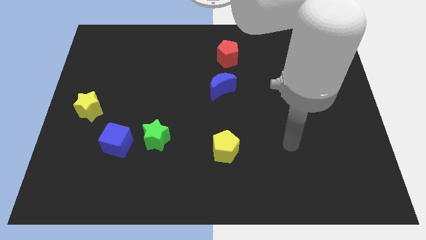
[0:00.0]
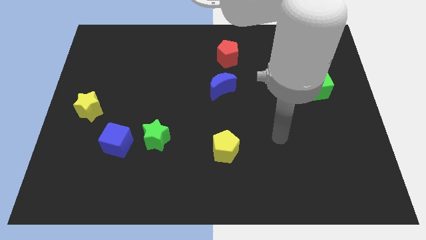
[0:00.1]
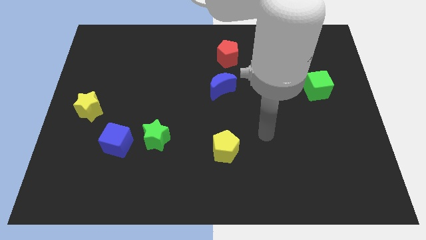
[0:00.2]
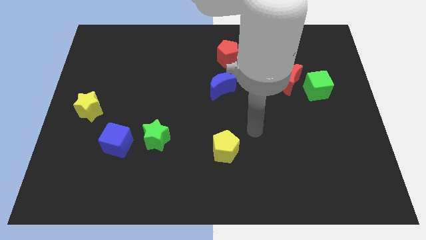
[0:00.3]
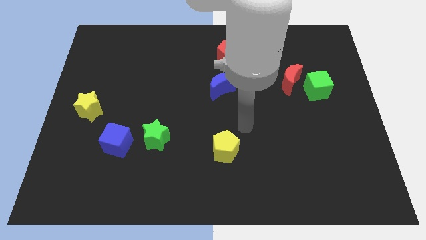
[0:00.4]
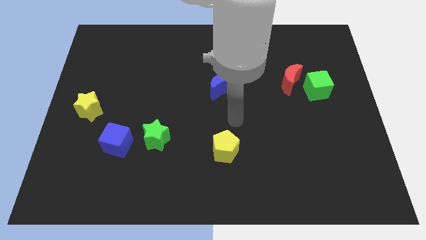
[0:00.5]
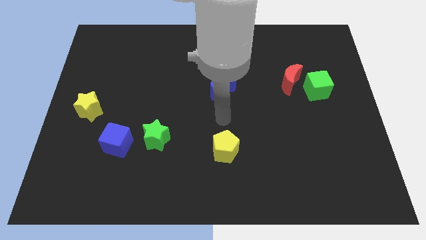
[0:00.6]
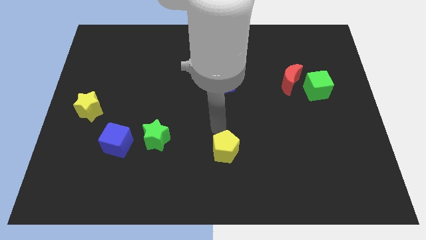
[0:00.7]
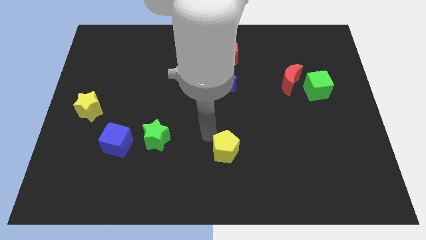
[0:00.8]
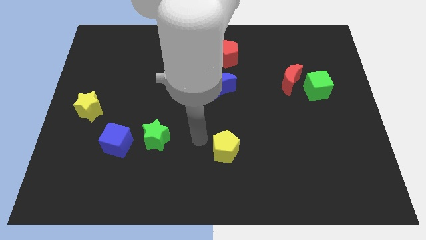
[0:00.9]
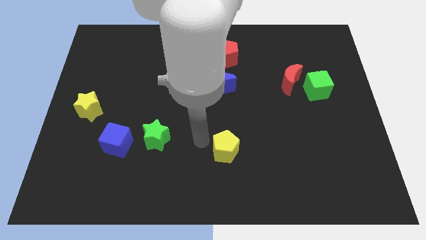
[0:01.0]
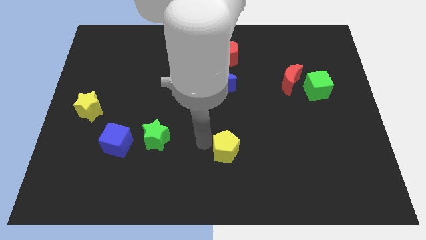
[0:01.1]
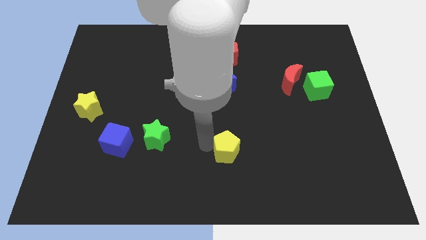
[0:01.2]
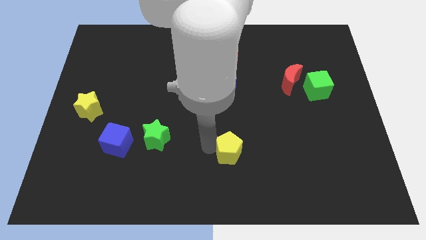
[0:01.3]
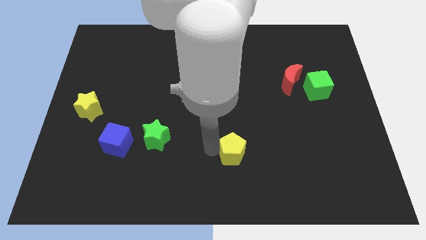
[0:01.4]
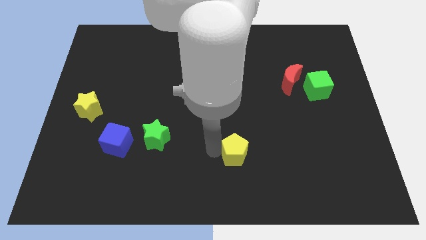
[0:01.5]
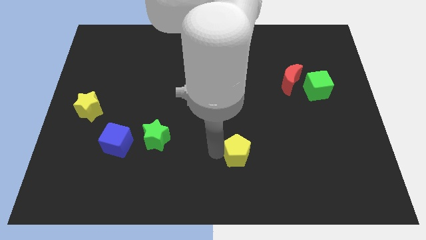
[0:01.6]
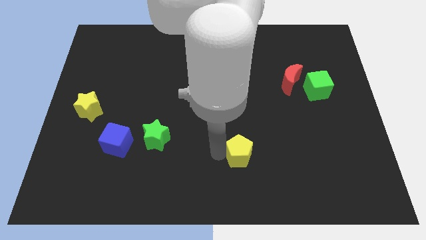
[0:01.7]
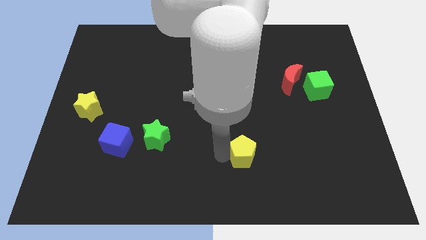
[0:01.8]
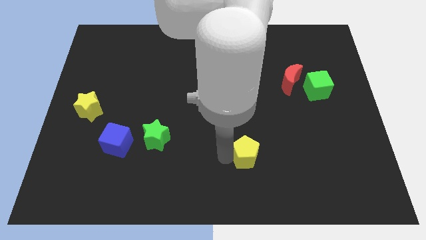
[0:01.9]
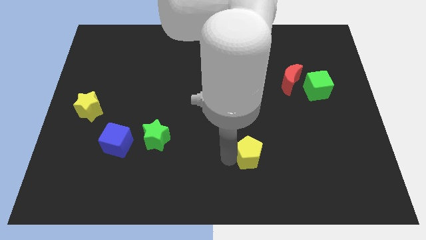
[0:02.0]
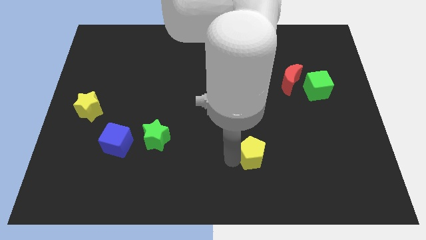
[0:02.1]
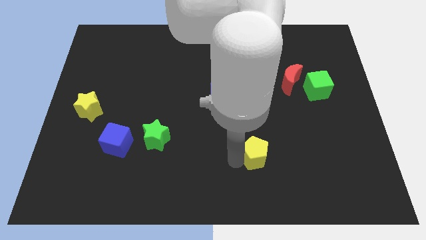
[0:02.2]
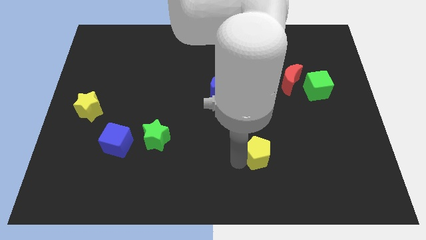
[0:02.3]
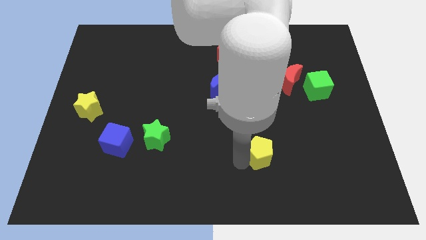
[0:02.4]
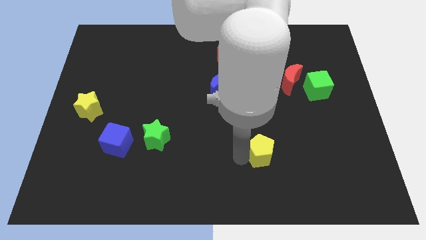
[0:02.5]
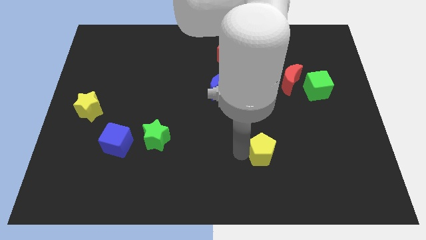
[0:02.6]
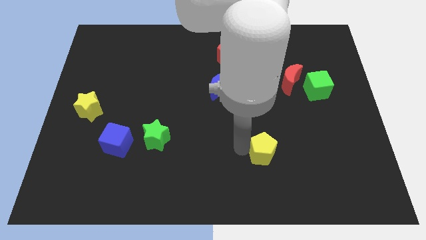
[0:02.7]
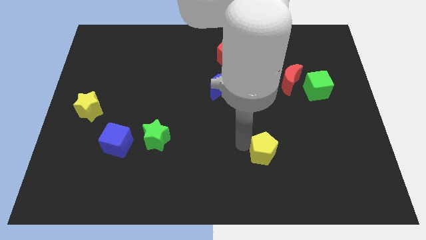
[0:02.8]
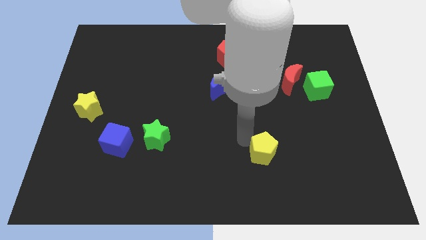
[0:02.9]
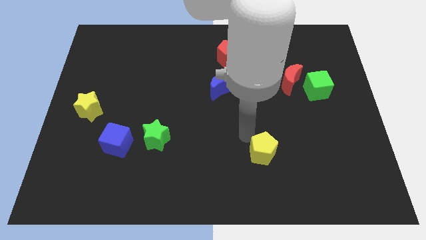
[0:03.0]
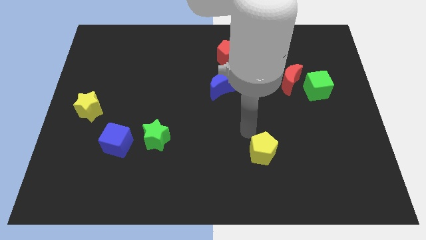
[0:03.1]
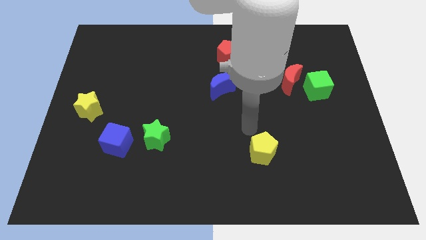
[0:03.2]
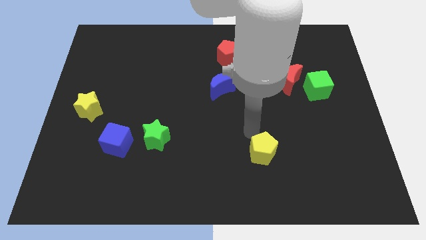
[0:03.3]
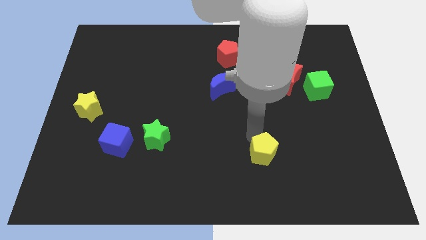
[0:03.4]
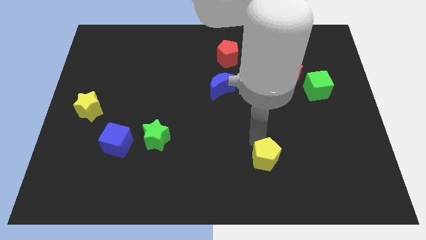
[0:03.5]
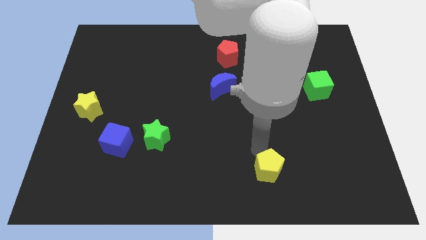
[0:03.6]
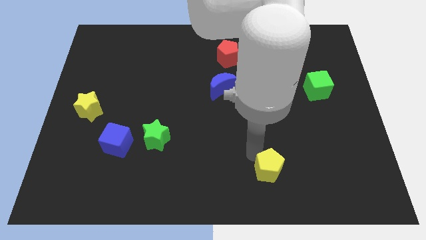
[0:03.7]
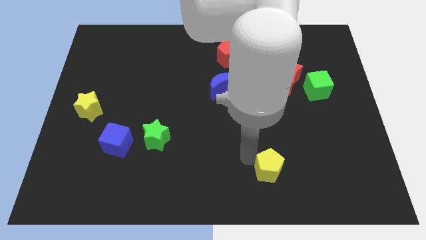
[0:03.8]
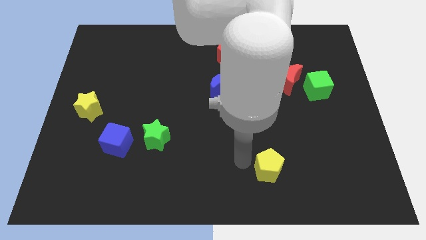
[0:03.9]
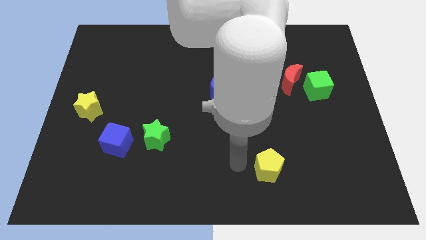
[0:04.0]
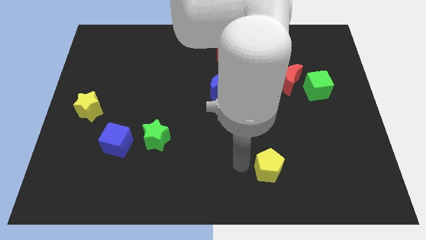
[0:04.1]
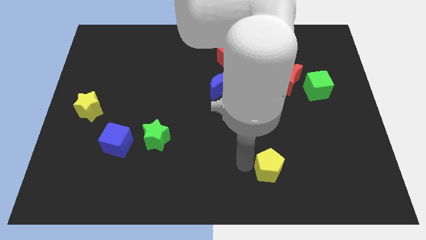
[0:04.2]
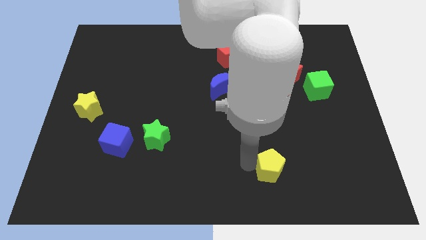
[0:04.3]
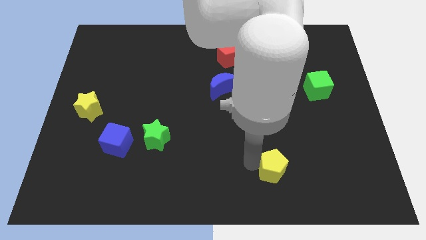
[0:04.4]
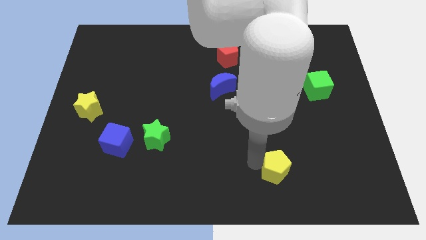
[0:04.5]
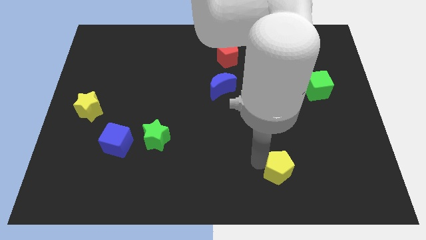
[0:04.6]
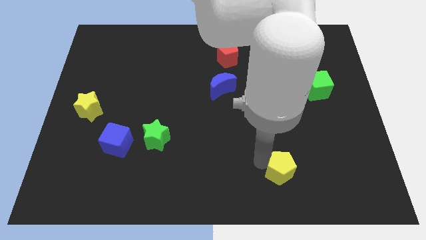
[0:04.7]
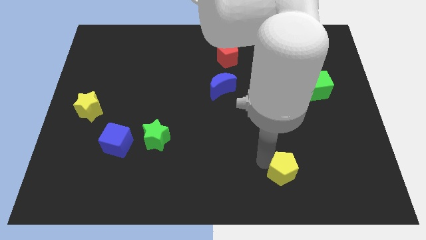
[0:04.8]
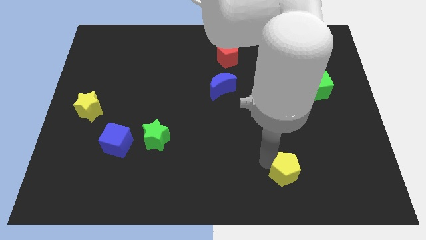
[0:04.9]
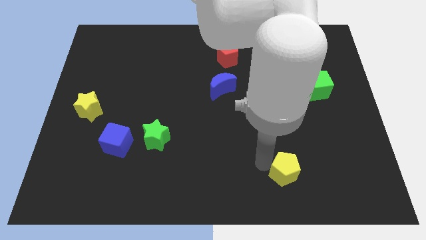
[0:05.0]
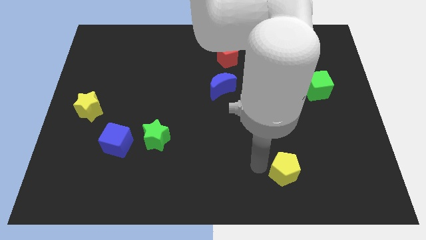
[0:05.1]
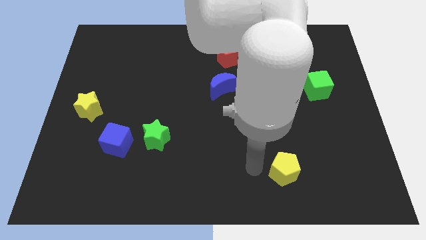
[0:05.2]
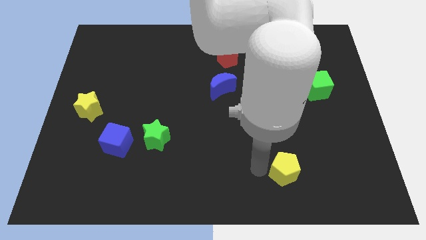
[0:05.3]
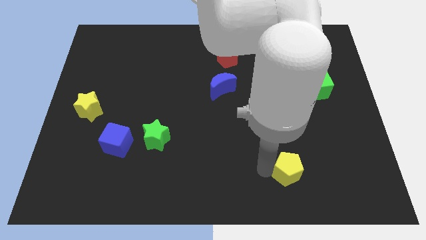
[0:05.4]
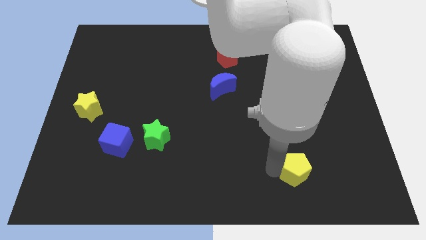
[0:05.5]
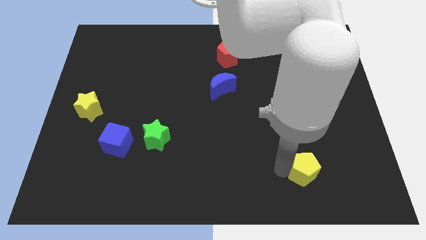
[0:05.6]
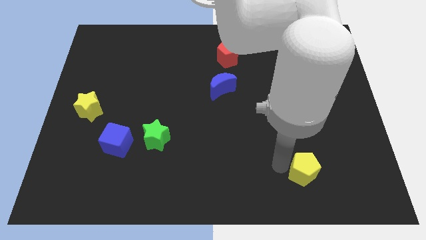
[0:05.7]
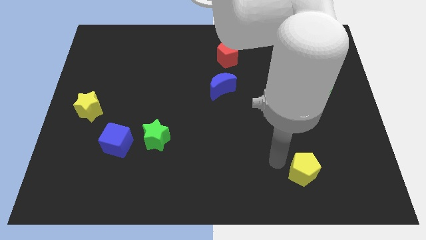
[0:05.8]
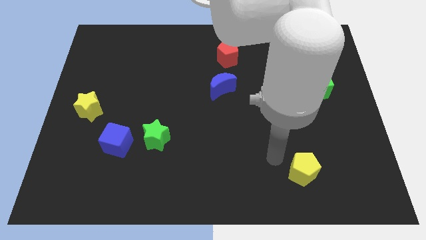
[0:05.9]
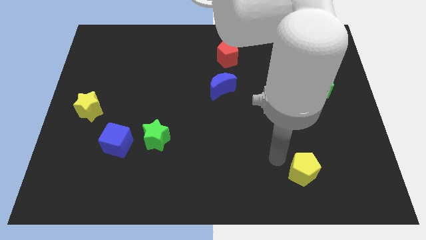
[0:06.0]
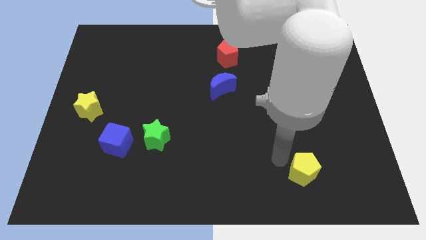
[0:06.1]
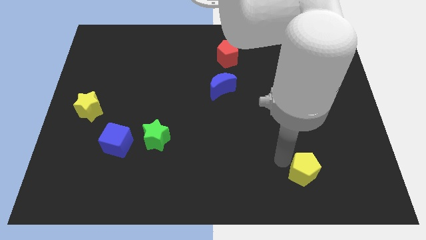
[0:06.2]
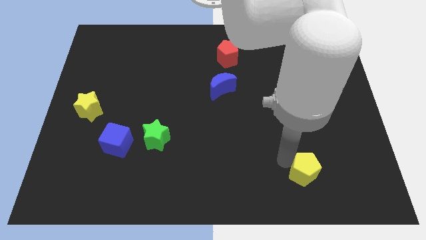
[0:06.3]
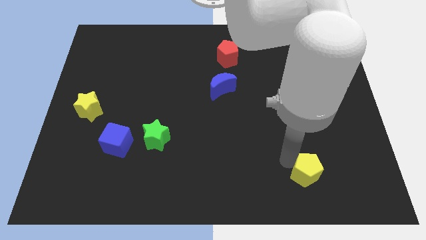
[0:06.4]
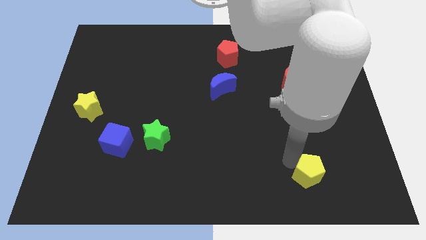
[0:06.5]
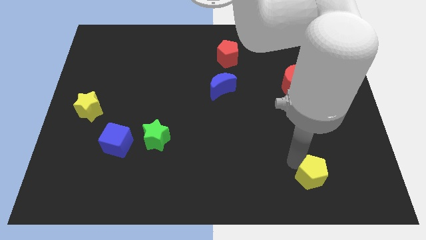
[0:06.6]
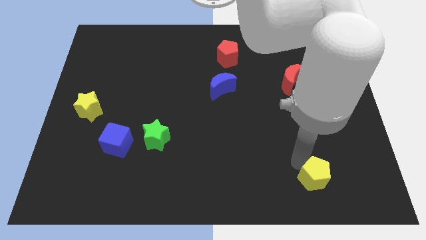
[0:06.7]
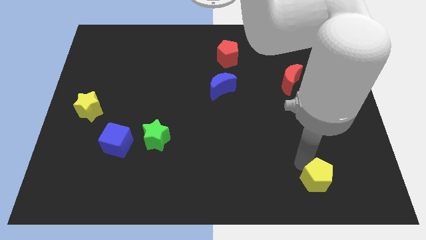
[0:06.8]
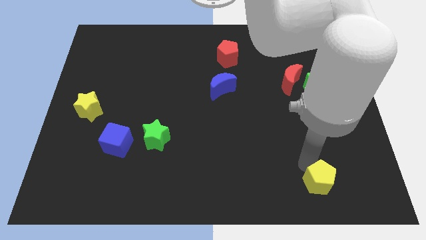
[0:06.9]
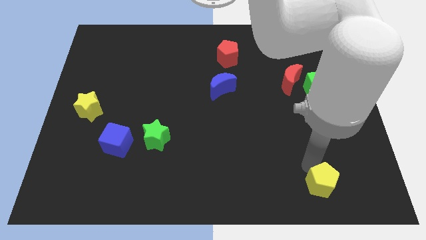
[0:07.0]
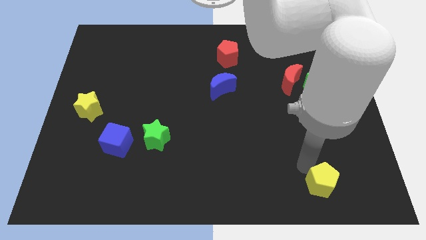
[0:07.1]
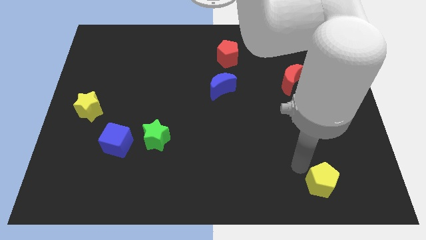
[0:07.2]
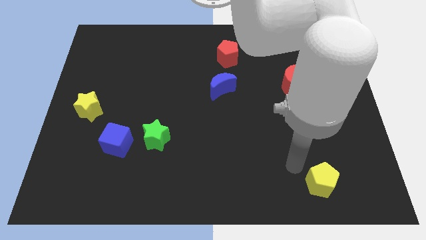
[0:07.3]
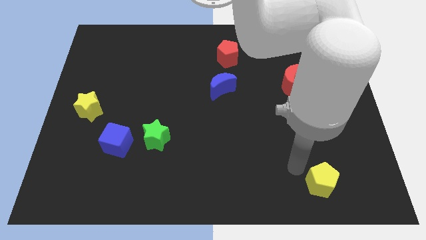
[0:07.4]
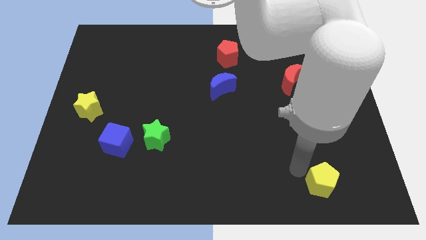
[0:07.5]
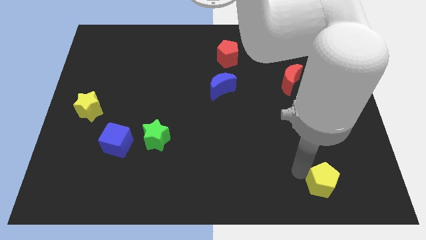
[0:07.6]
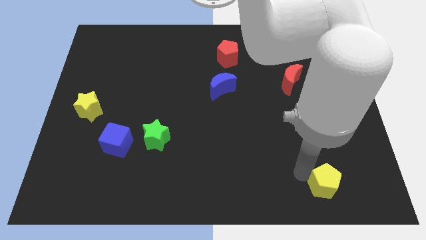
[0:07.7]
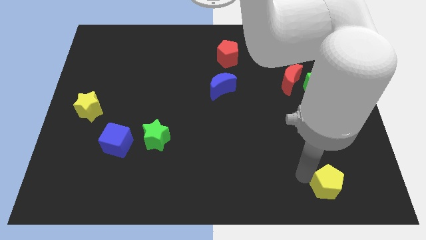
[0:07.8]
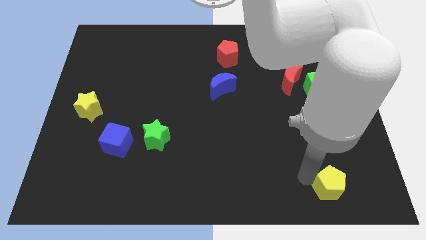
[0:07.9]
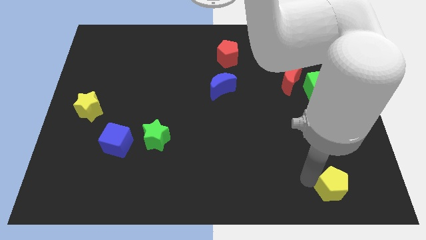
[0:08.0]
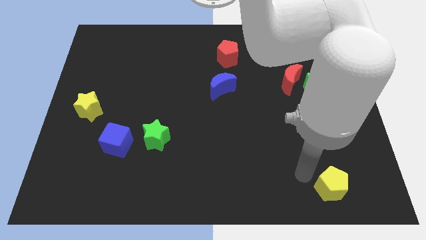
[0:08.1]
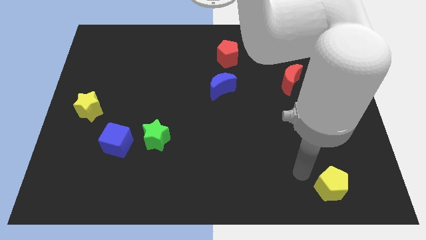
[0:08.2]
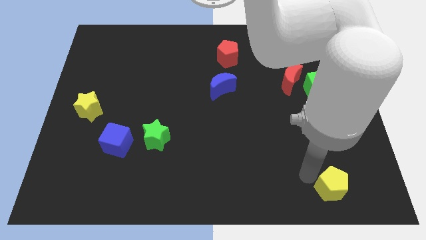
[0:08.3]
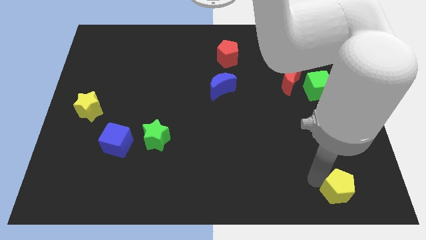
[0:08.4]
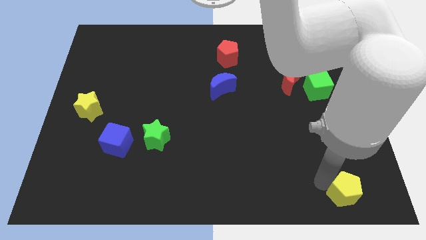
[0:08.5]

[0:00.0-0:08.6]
slide the yellow pentagon to the bottom right of the board
